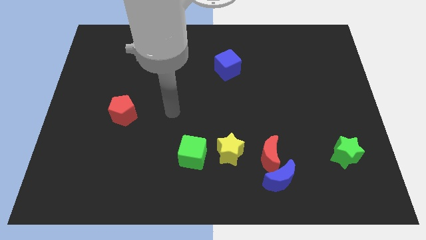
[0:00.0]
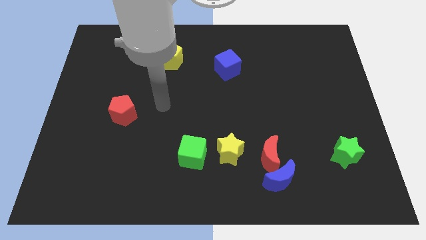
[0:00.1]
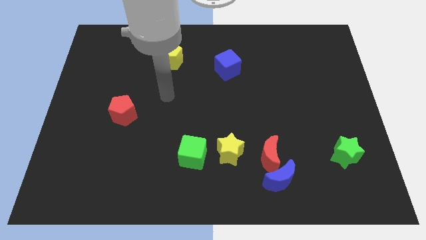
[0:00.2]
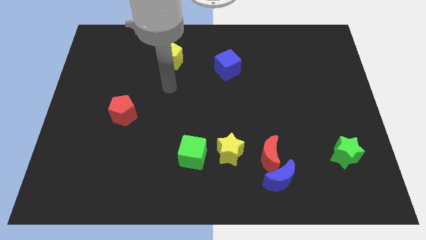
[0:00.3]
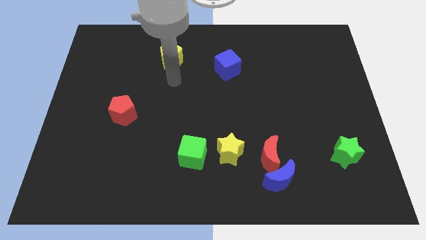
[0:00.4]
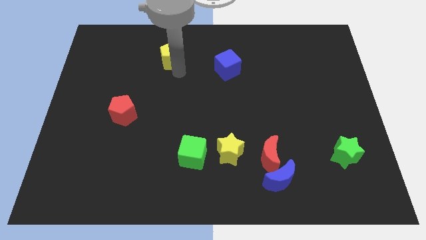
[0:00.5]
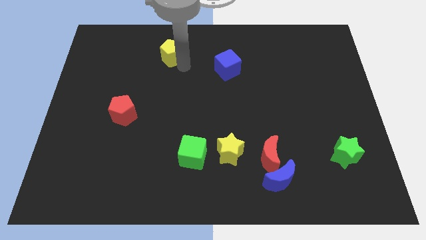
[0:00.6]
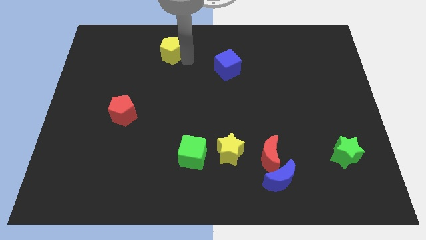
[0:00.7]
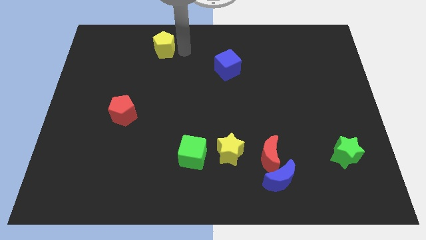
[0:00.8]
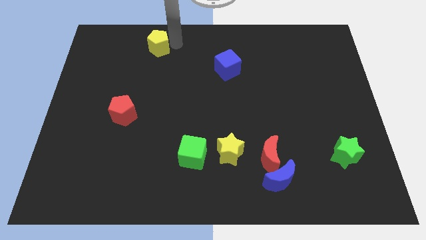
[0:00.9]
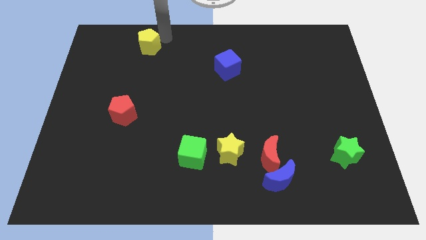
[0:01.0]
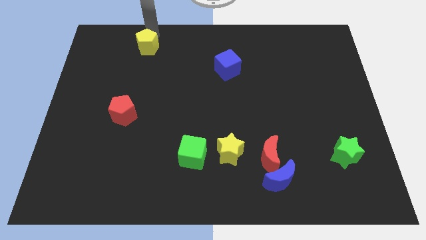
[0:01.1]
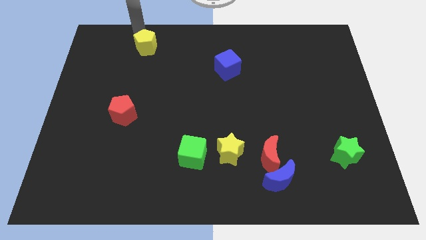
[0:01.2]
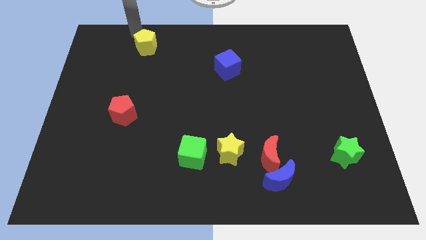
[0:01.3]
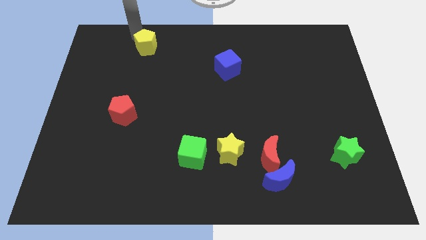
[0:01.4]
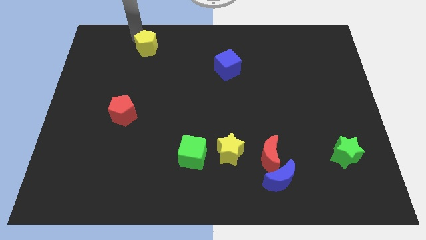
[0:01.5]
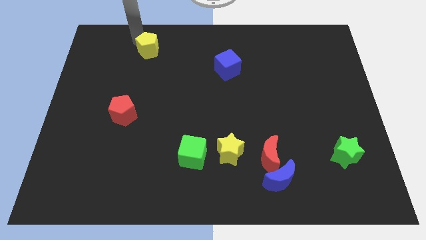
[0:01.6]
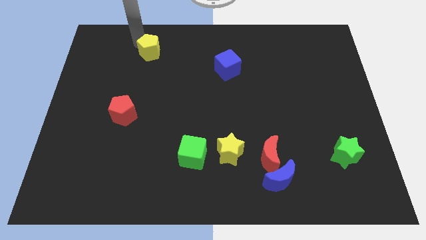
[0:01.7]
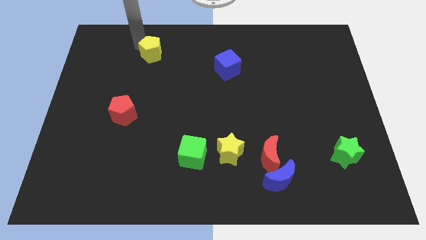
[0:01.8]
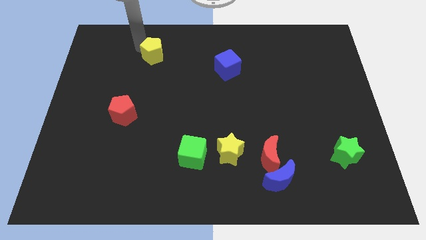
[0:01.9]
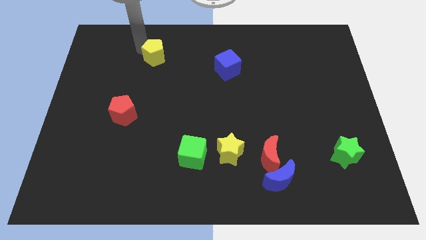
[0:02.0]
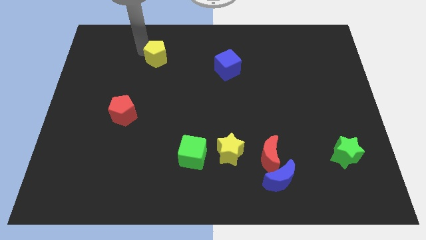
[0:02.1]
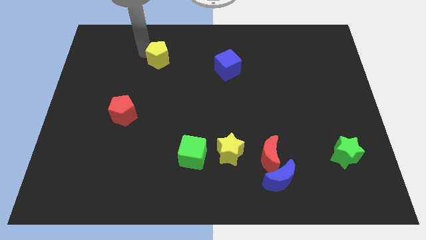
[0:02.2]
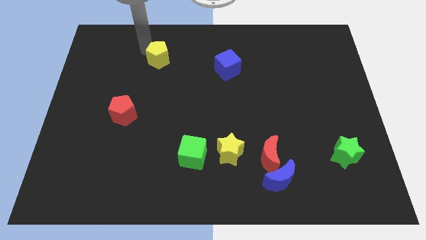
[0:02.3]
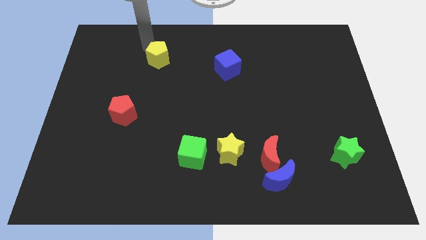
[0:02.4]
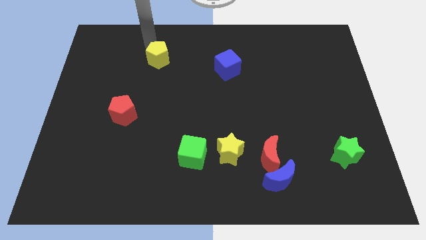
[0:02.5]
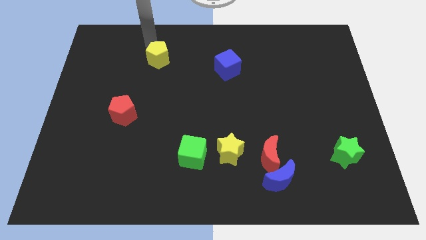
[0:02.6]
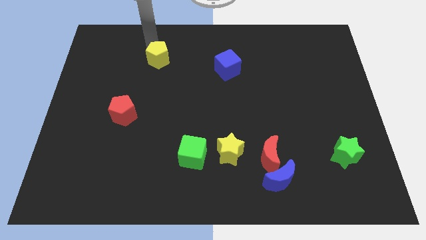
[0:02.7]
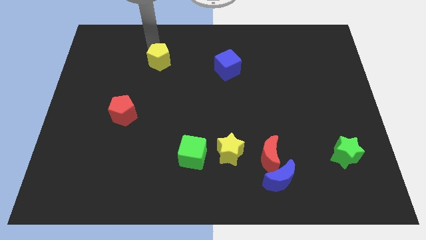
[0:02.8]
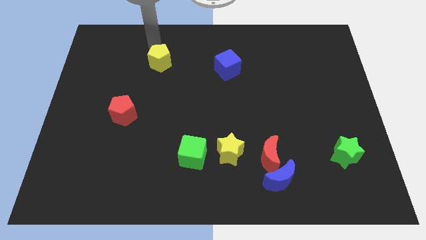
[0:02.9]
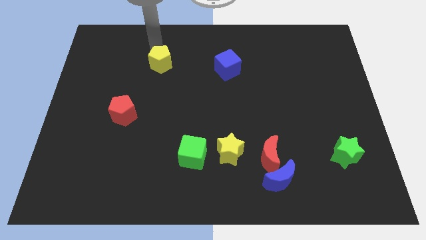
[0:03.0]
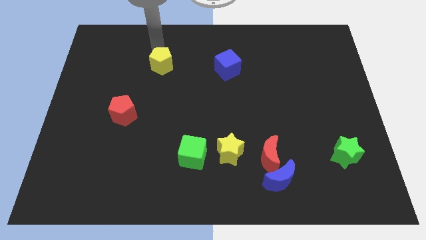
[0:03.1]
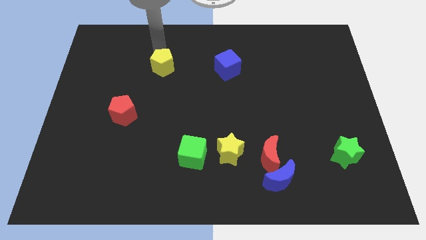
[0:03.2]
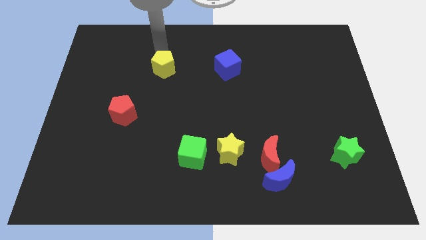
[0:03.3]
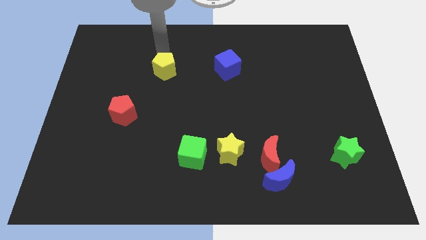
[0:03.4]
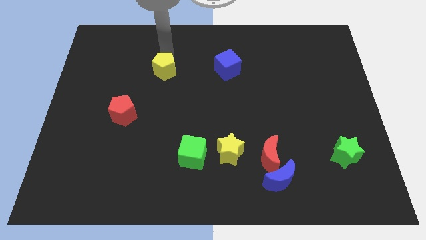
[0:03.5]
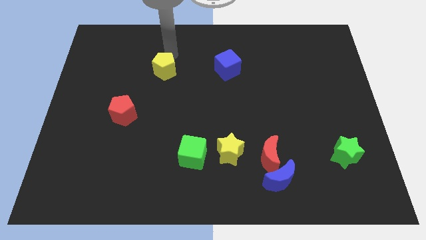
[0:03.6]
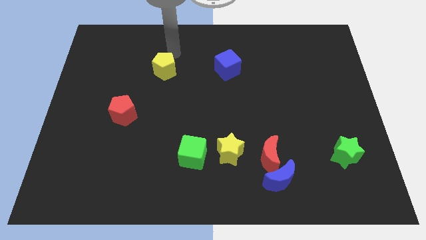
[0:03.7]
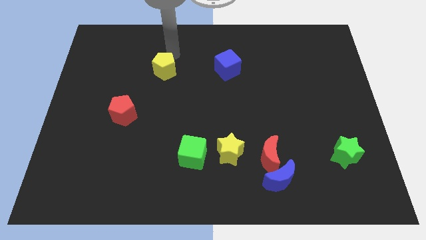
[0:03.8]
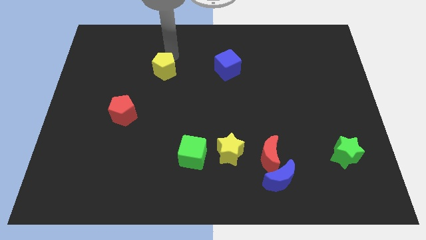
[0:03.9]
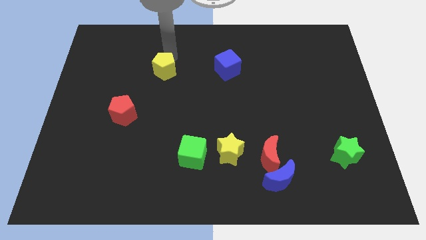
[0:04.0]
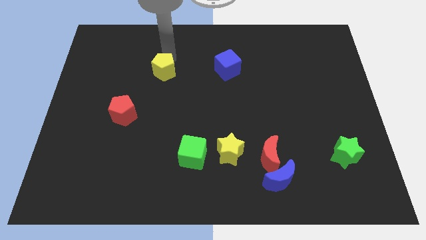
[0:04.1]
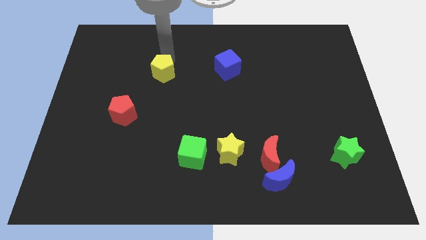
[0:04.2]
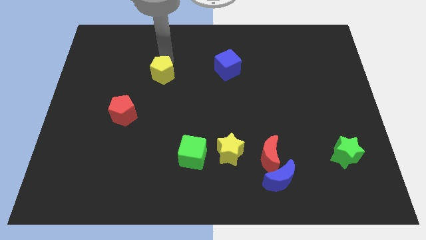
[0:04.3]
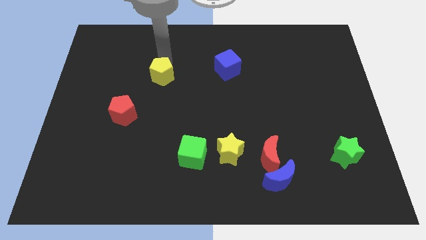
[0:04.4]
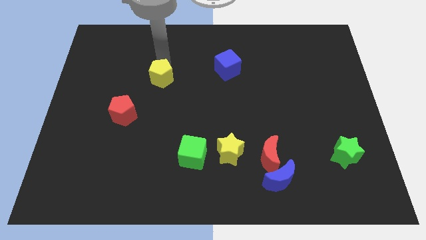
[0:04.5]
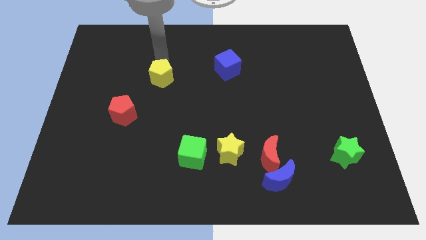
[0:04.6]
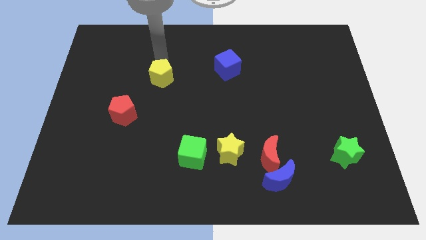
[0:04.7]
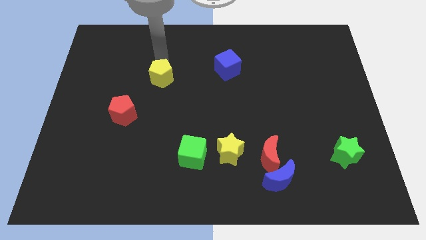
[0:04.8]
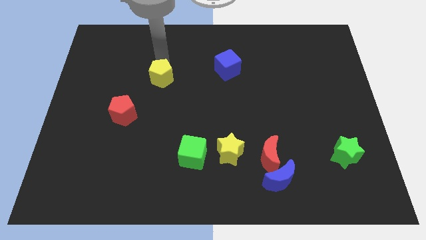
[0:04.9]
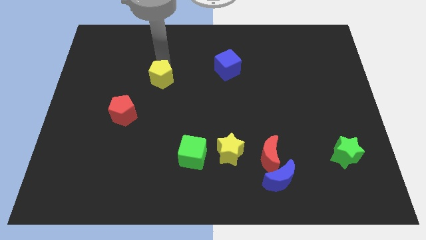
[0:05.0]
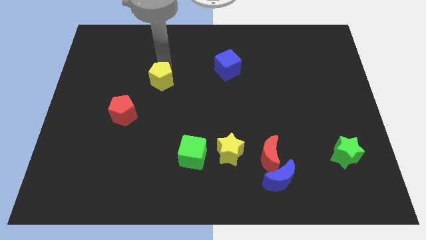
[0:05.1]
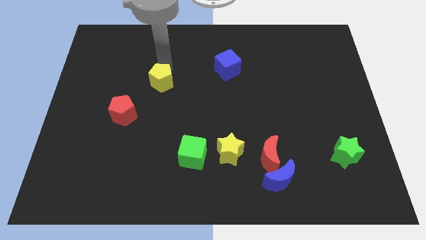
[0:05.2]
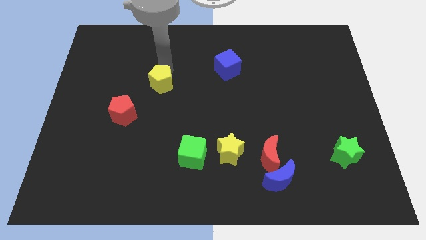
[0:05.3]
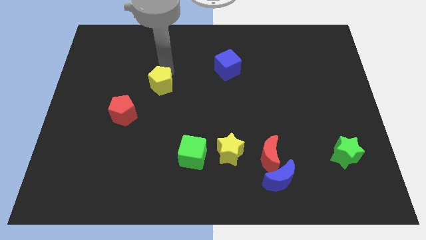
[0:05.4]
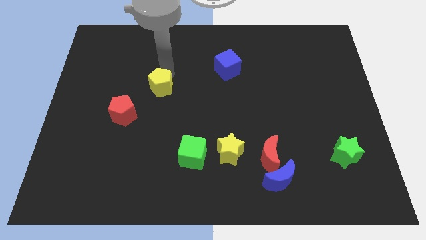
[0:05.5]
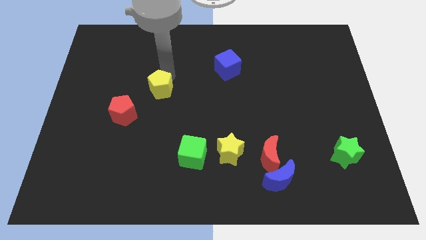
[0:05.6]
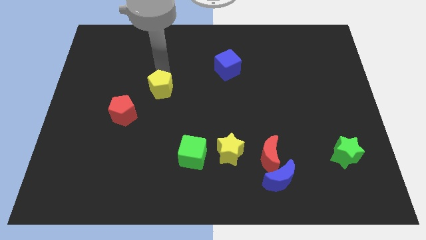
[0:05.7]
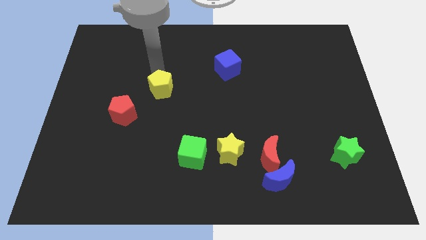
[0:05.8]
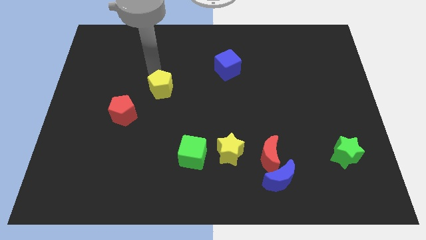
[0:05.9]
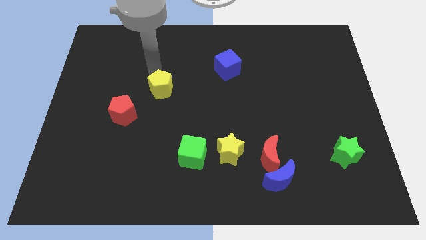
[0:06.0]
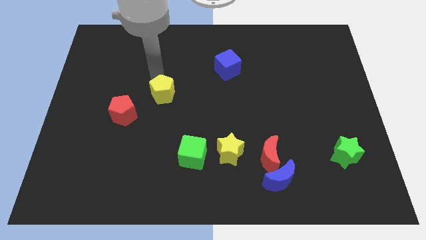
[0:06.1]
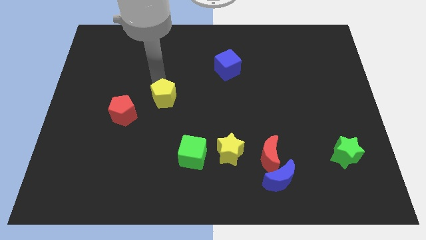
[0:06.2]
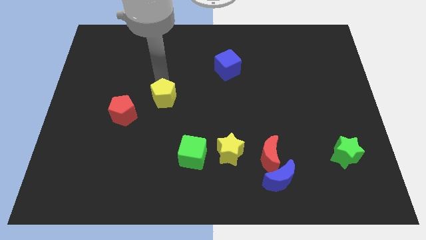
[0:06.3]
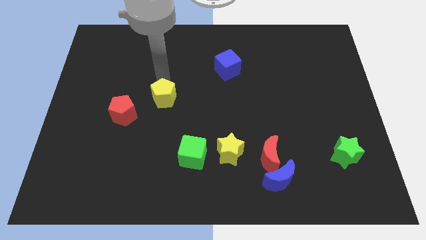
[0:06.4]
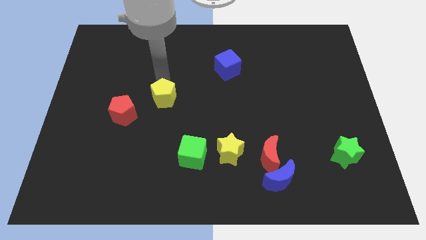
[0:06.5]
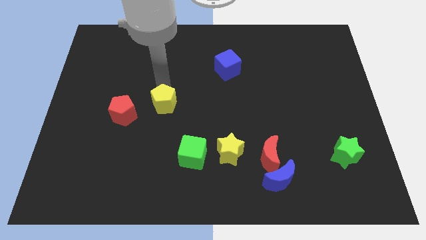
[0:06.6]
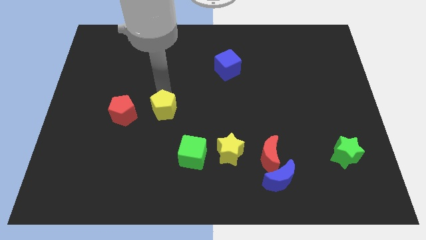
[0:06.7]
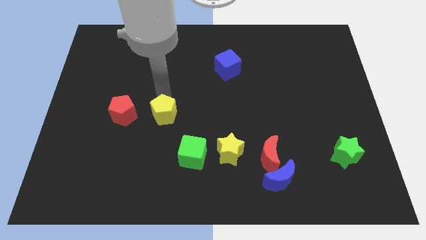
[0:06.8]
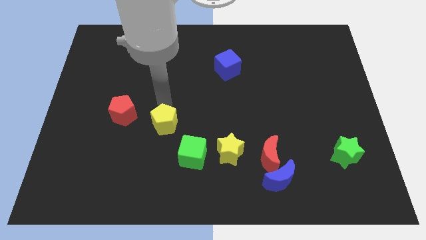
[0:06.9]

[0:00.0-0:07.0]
slide the yellow pentagon downwards

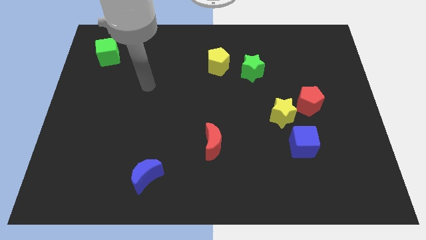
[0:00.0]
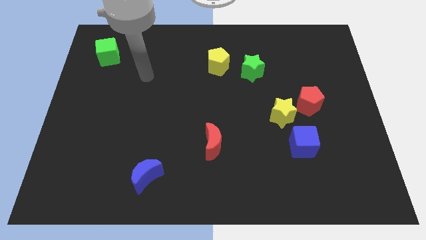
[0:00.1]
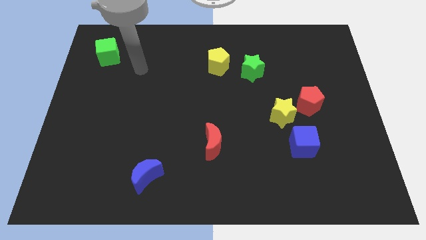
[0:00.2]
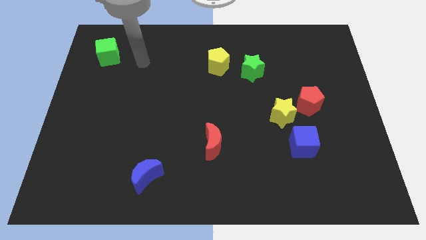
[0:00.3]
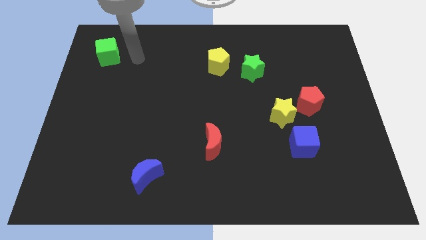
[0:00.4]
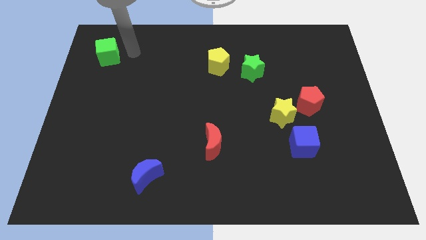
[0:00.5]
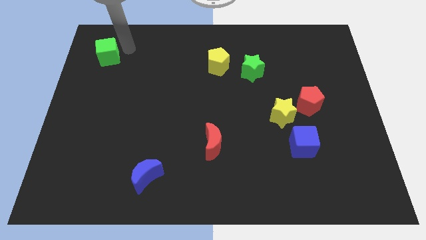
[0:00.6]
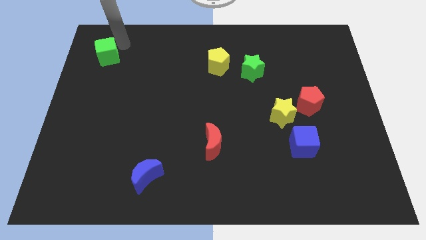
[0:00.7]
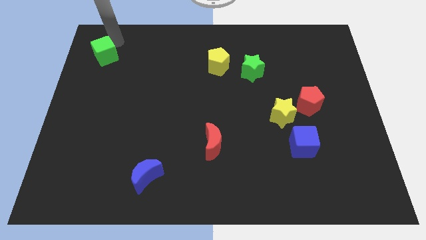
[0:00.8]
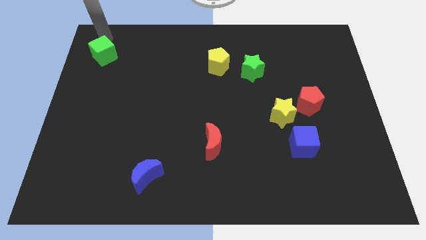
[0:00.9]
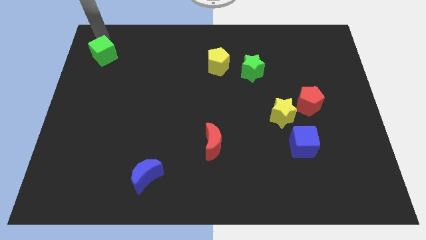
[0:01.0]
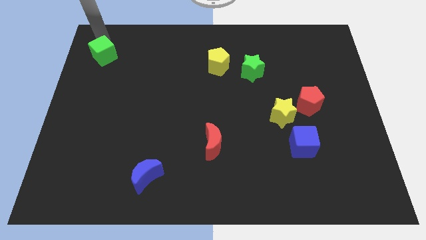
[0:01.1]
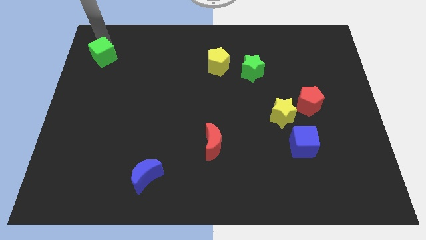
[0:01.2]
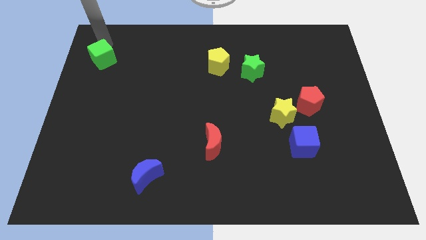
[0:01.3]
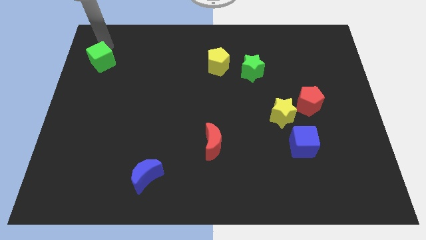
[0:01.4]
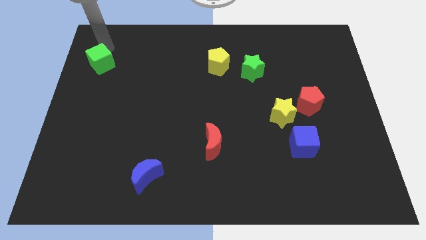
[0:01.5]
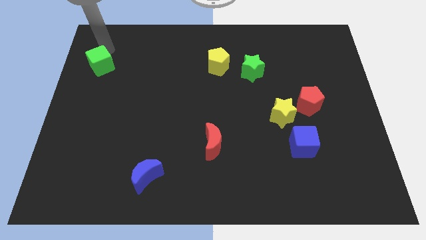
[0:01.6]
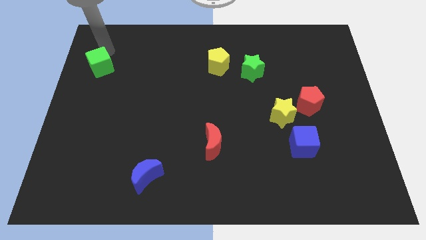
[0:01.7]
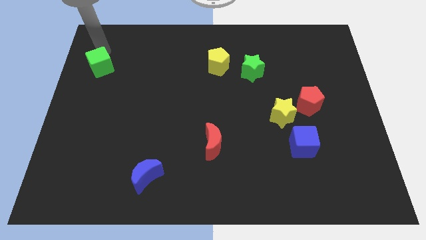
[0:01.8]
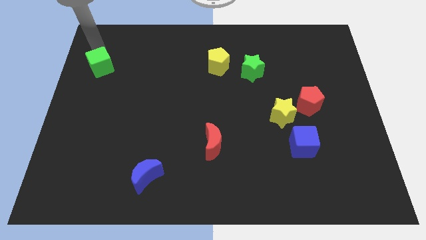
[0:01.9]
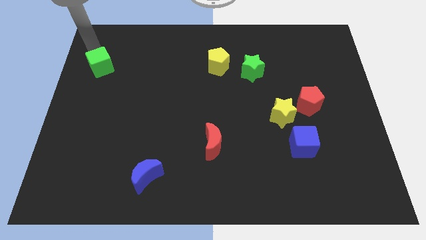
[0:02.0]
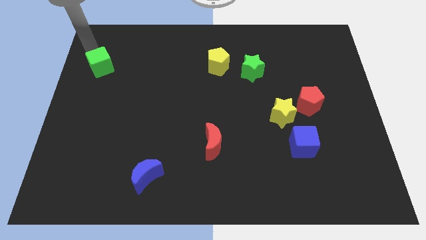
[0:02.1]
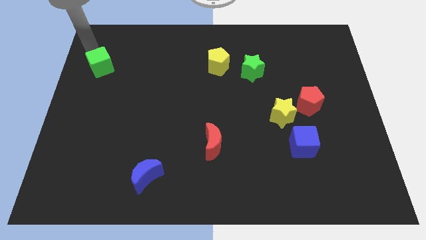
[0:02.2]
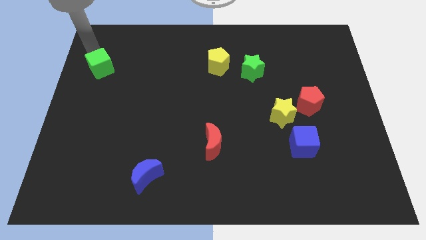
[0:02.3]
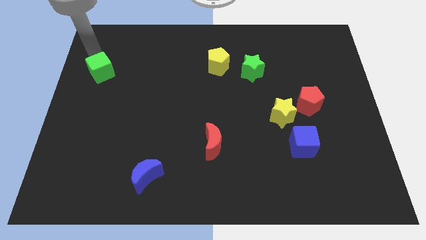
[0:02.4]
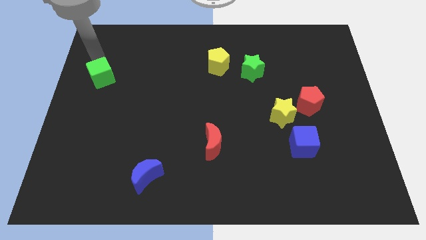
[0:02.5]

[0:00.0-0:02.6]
move the green cube a bit downwards
